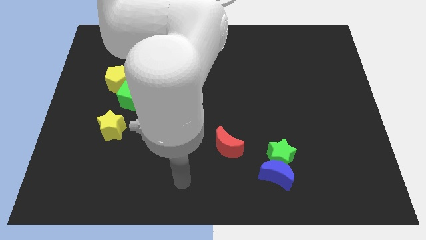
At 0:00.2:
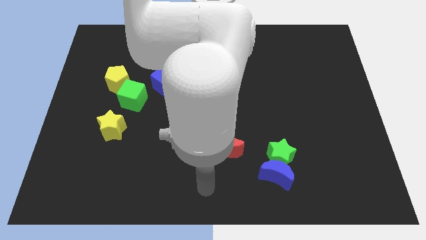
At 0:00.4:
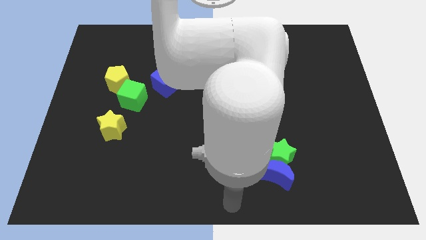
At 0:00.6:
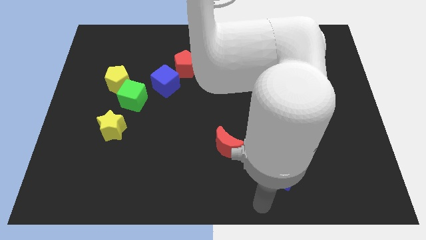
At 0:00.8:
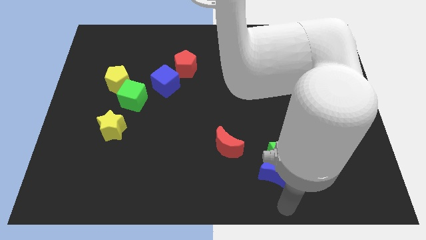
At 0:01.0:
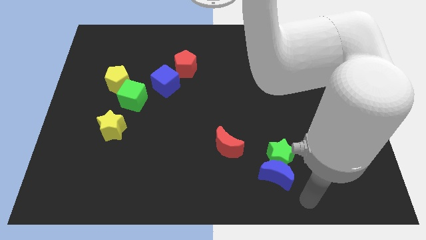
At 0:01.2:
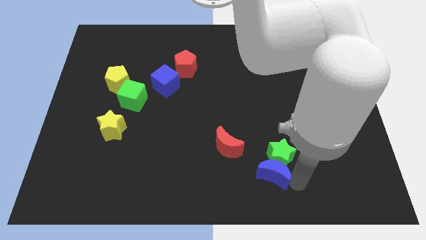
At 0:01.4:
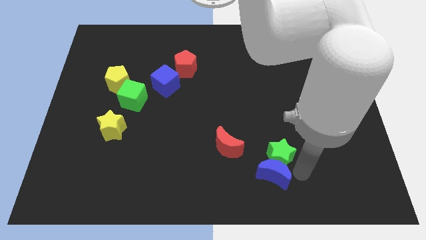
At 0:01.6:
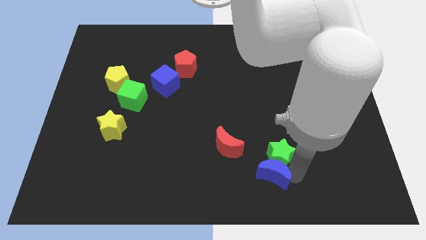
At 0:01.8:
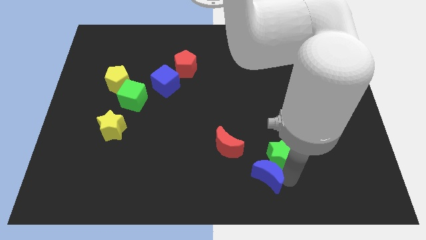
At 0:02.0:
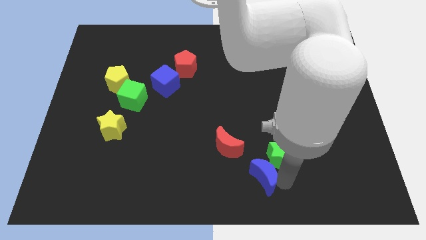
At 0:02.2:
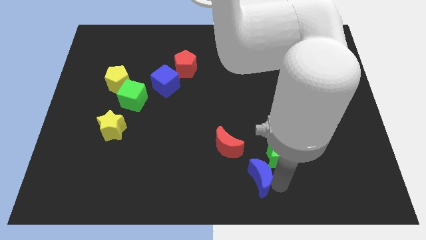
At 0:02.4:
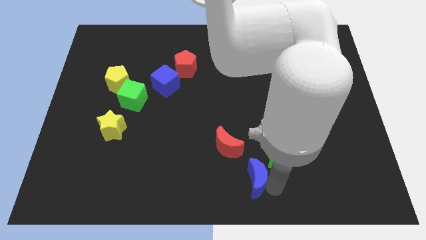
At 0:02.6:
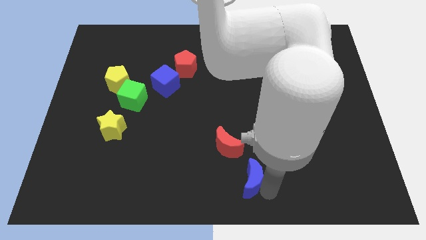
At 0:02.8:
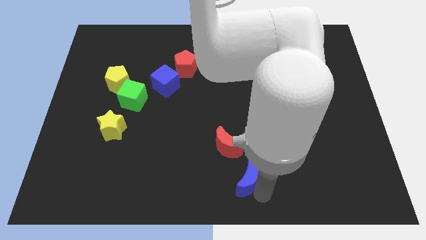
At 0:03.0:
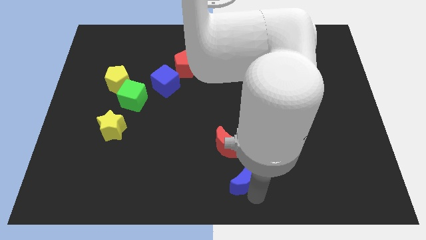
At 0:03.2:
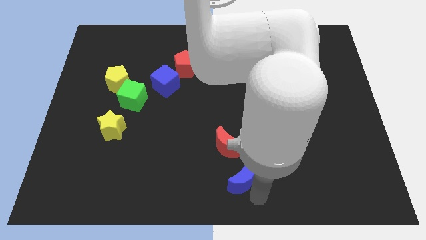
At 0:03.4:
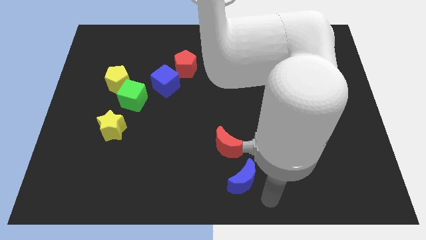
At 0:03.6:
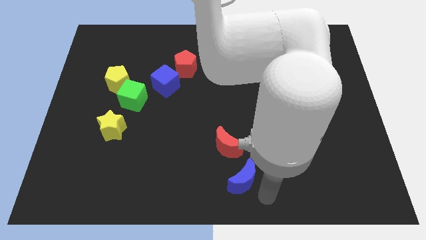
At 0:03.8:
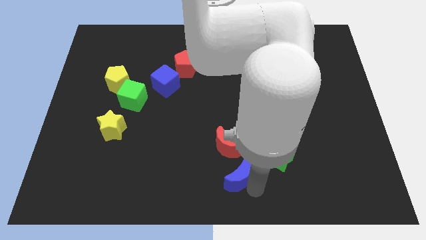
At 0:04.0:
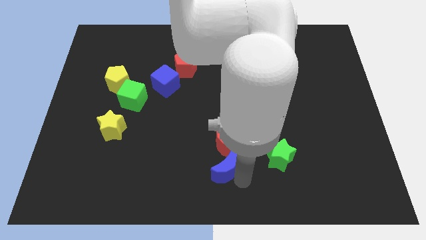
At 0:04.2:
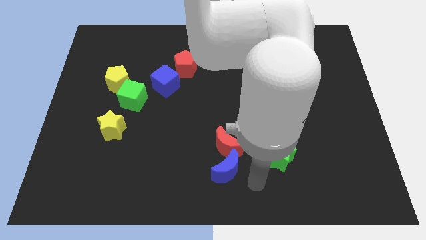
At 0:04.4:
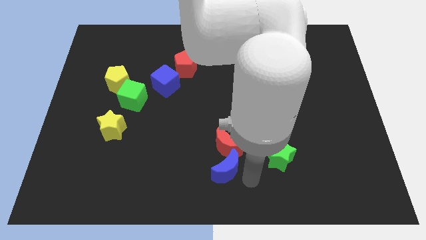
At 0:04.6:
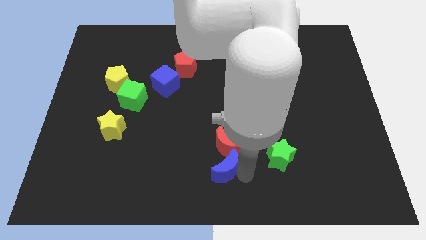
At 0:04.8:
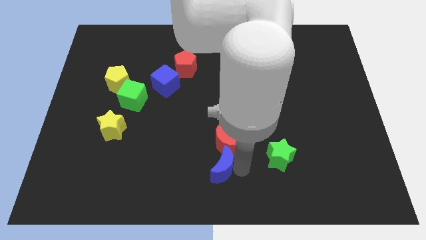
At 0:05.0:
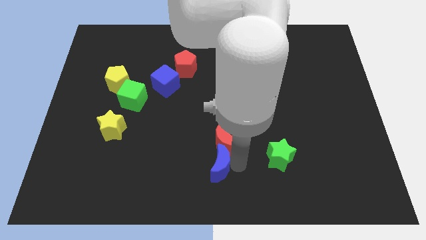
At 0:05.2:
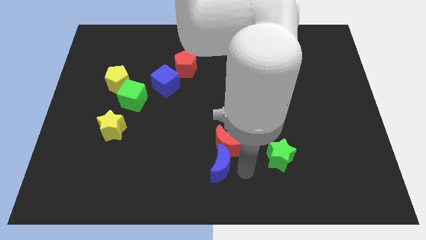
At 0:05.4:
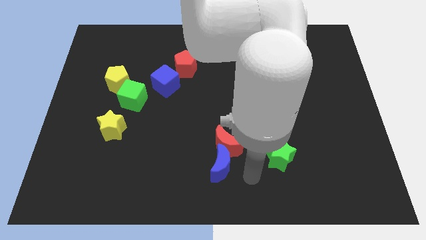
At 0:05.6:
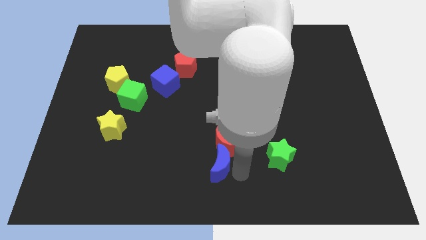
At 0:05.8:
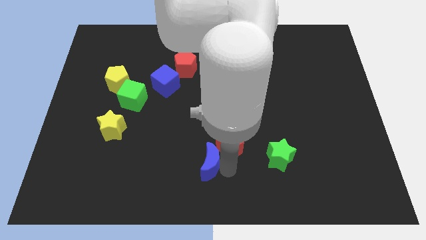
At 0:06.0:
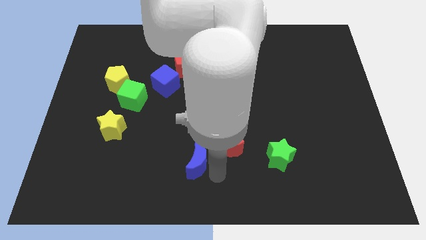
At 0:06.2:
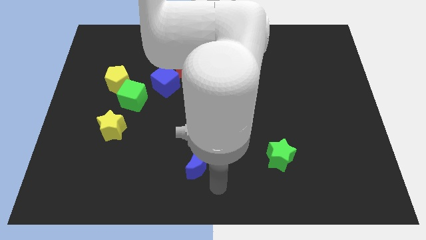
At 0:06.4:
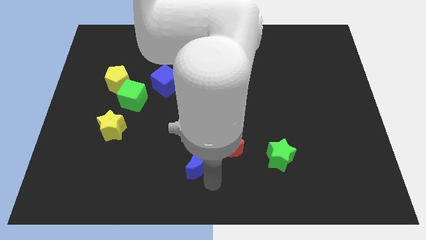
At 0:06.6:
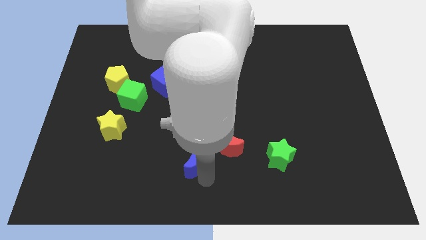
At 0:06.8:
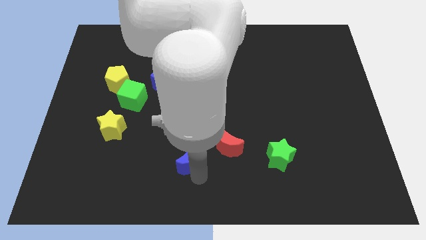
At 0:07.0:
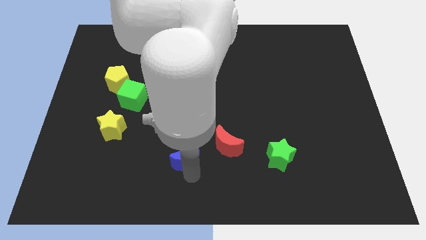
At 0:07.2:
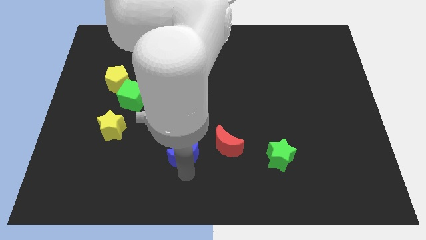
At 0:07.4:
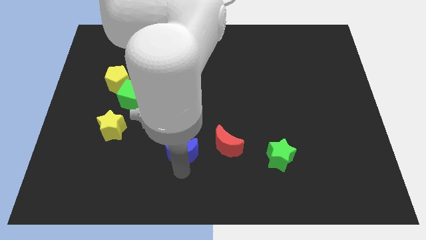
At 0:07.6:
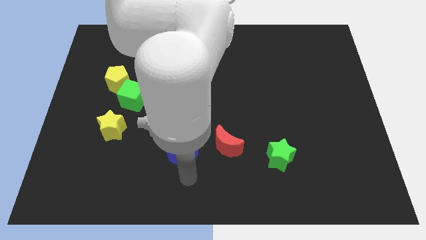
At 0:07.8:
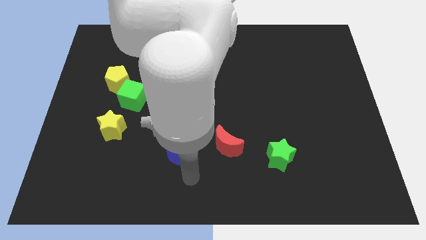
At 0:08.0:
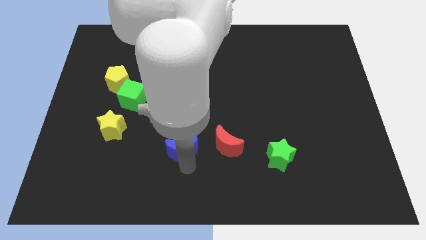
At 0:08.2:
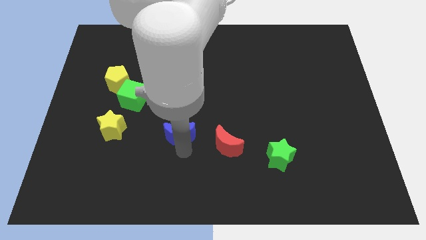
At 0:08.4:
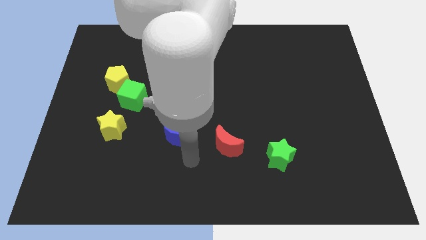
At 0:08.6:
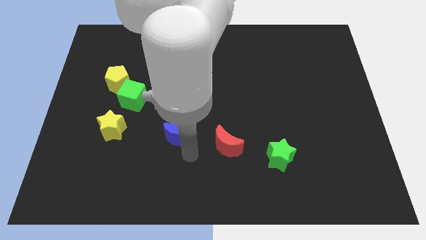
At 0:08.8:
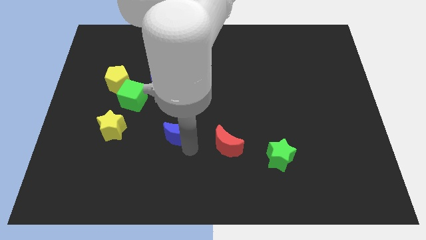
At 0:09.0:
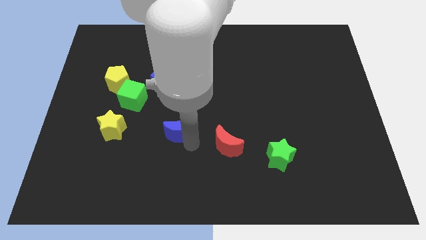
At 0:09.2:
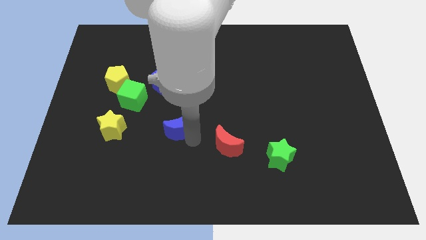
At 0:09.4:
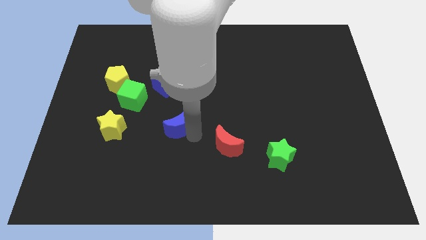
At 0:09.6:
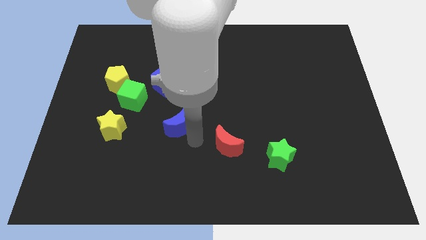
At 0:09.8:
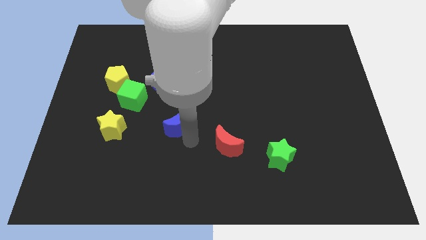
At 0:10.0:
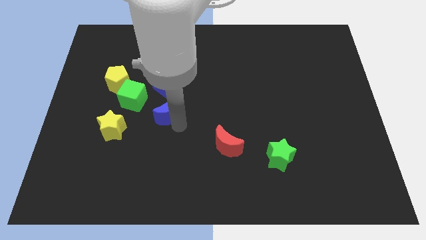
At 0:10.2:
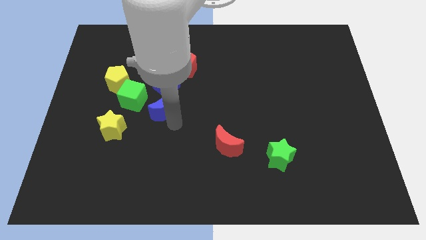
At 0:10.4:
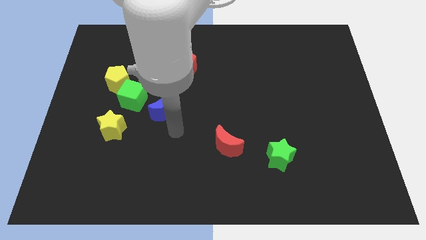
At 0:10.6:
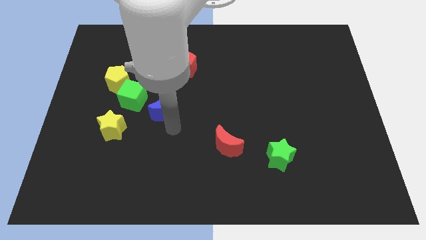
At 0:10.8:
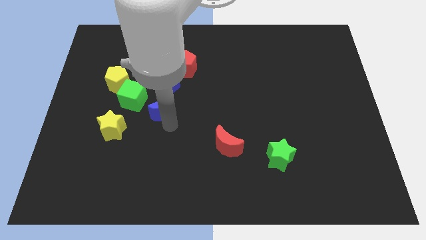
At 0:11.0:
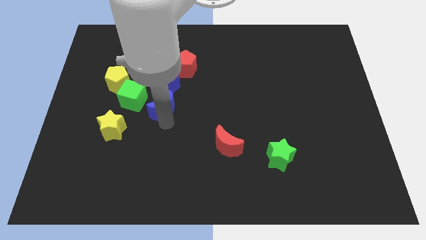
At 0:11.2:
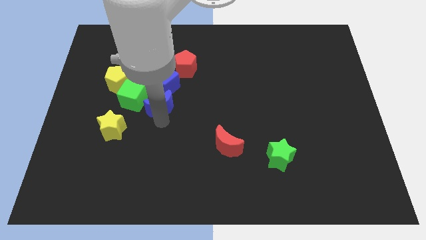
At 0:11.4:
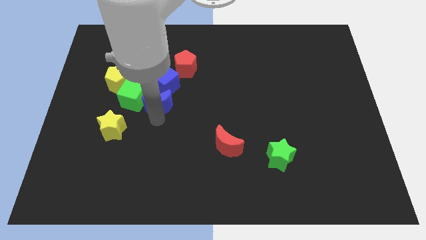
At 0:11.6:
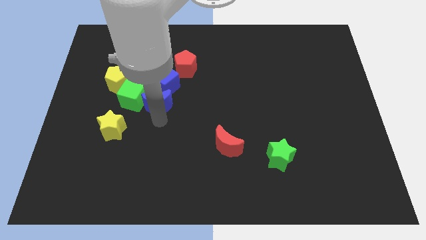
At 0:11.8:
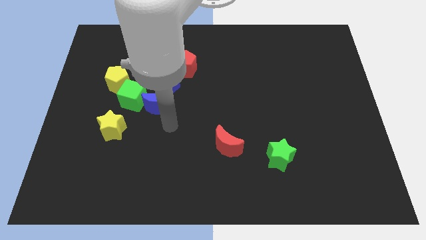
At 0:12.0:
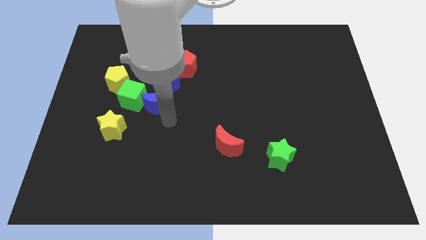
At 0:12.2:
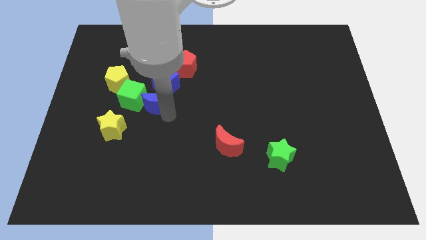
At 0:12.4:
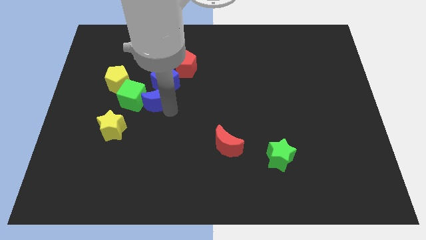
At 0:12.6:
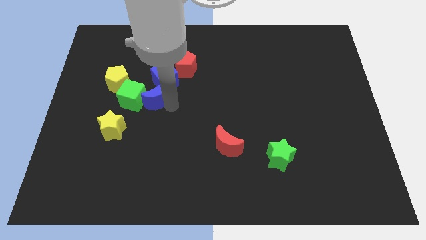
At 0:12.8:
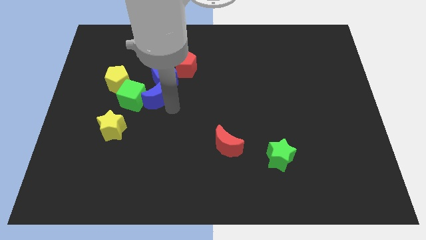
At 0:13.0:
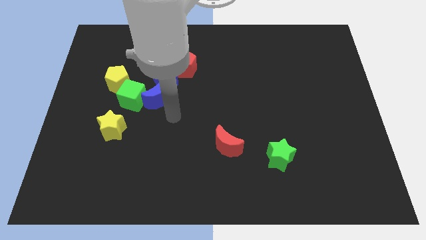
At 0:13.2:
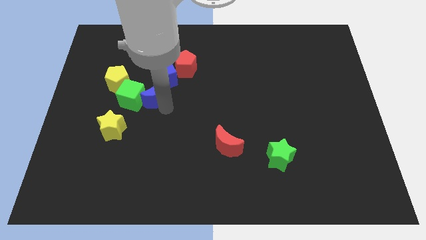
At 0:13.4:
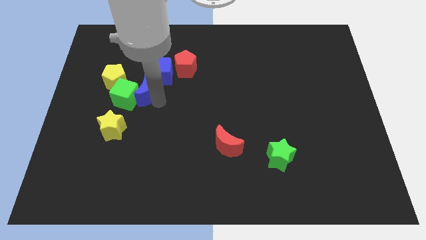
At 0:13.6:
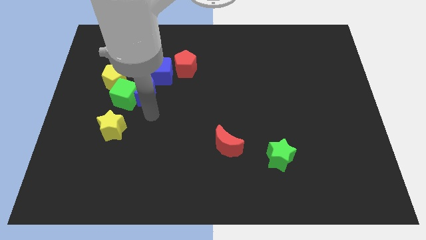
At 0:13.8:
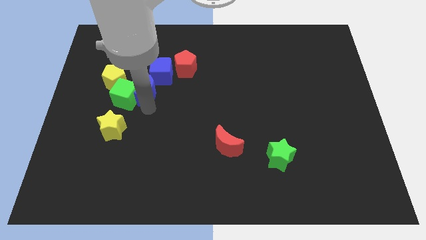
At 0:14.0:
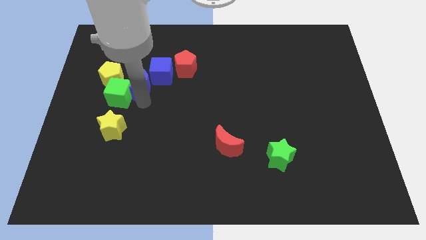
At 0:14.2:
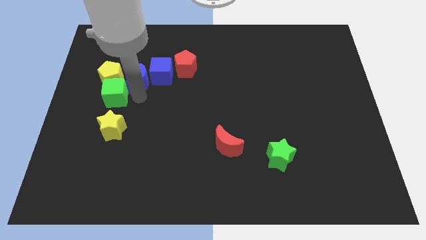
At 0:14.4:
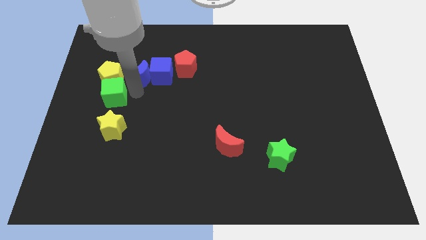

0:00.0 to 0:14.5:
slide the blue moon diagonally up and to the left of the blue cube

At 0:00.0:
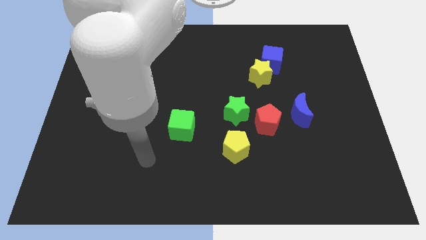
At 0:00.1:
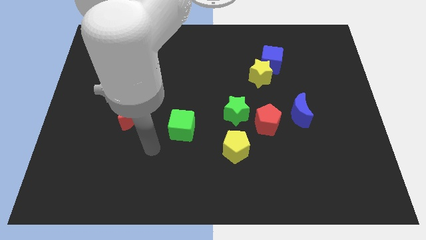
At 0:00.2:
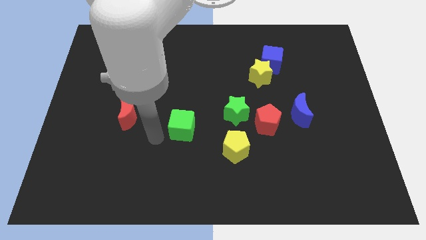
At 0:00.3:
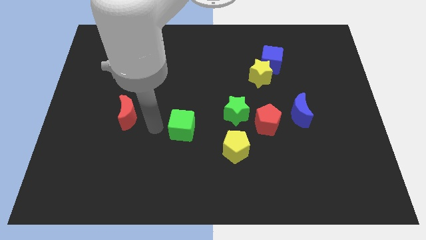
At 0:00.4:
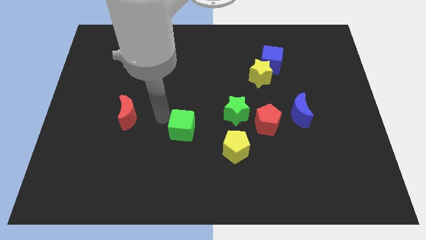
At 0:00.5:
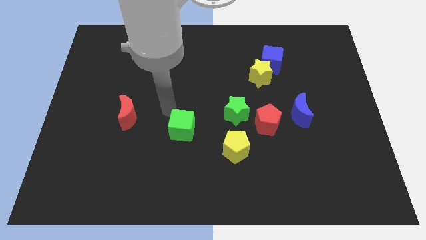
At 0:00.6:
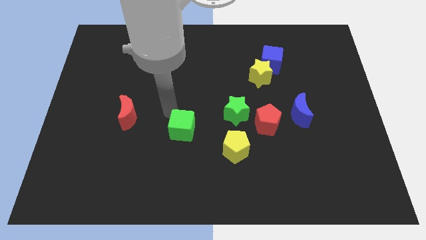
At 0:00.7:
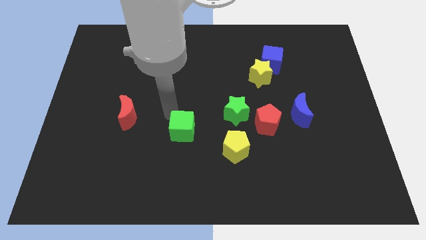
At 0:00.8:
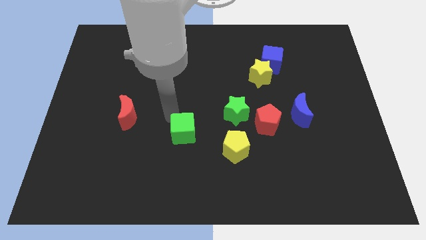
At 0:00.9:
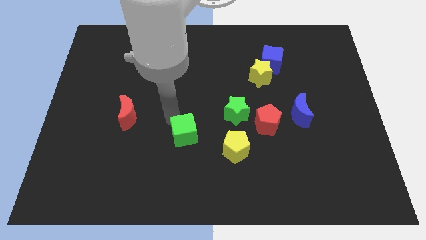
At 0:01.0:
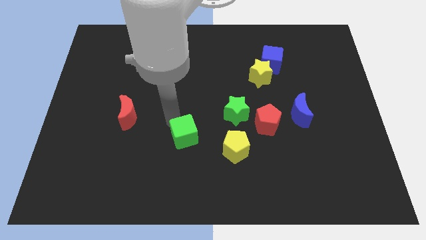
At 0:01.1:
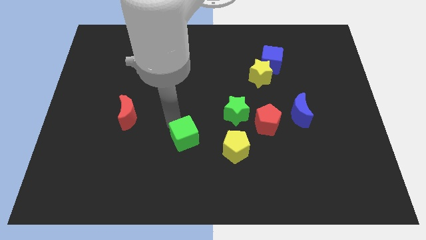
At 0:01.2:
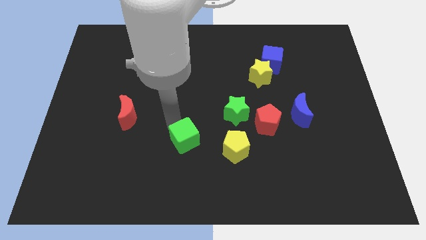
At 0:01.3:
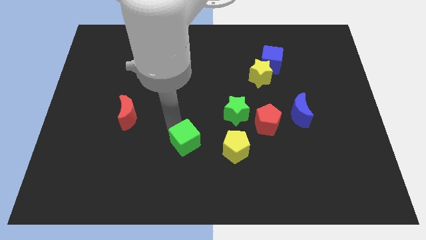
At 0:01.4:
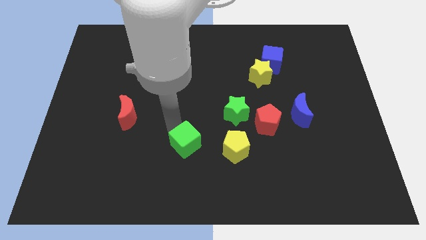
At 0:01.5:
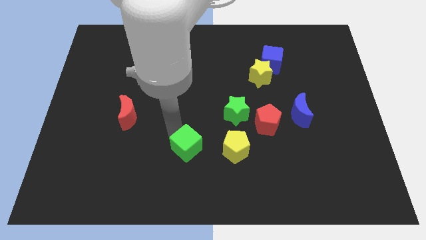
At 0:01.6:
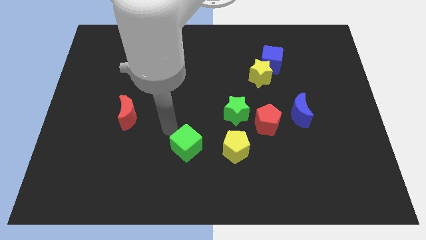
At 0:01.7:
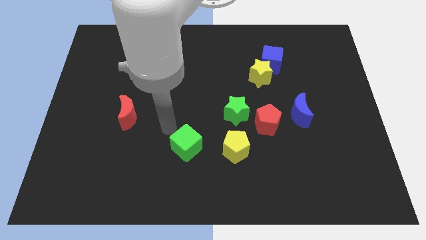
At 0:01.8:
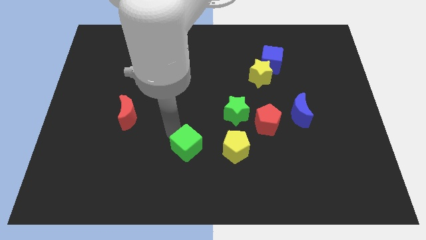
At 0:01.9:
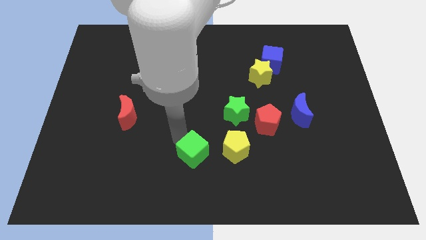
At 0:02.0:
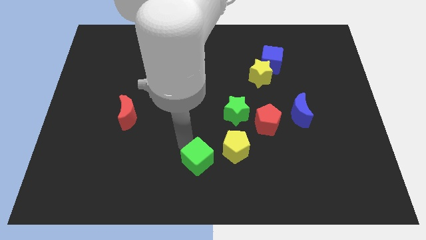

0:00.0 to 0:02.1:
put the green cube diagonally down and to the left of the yellow pentagon
